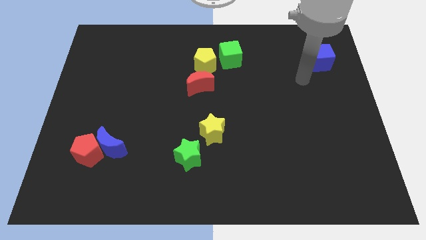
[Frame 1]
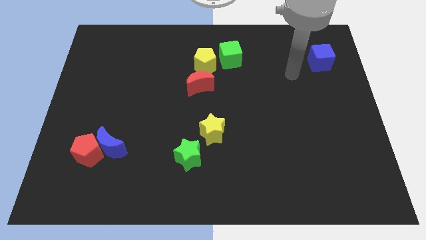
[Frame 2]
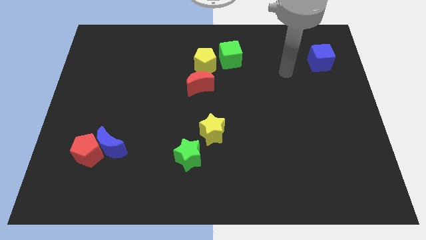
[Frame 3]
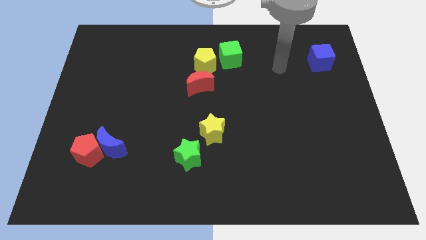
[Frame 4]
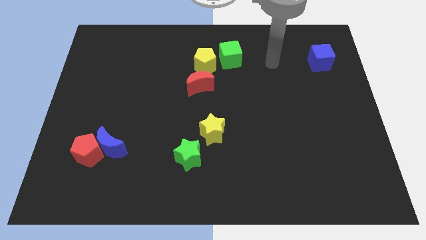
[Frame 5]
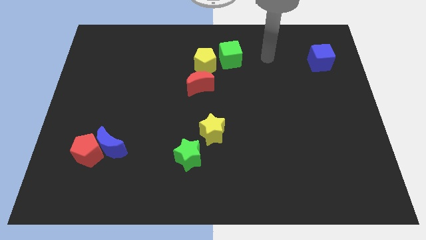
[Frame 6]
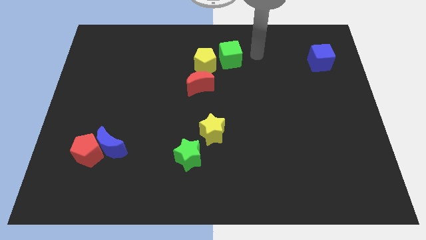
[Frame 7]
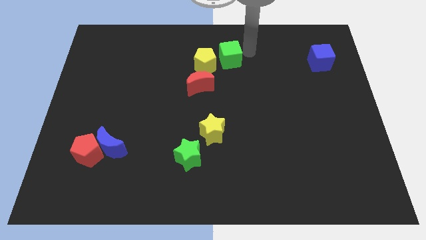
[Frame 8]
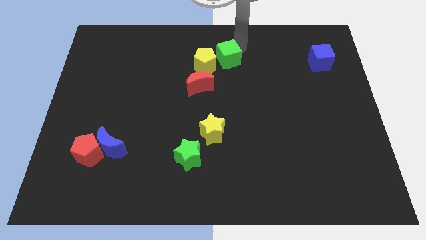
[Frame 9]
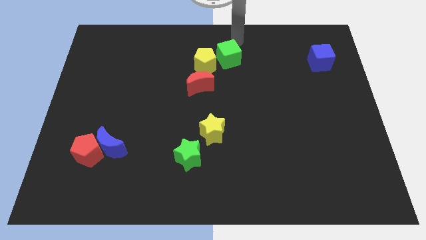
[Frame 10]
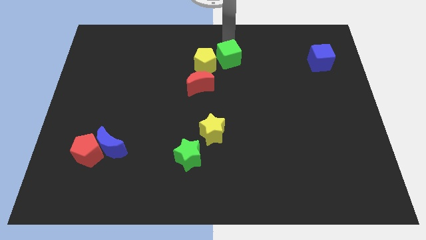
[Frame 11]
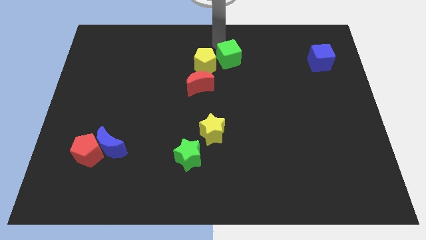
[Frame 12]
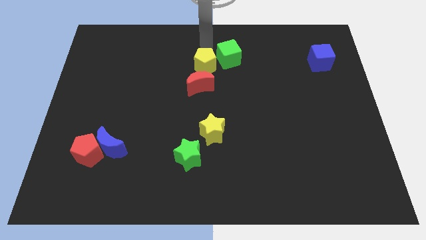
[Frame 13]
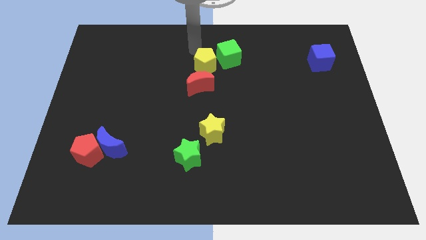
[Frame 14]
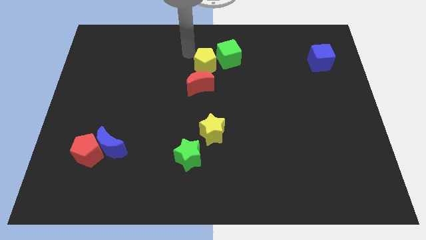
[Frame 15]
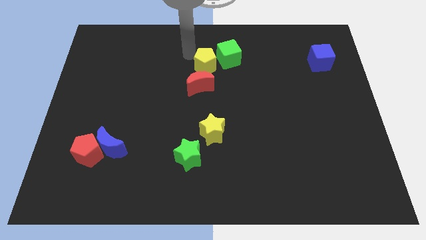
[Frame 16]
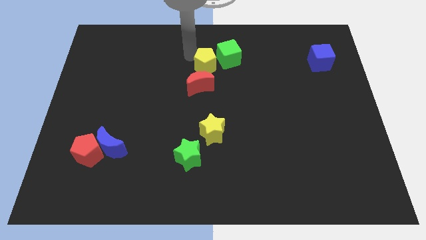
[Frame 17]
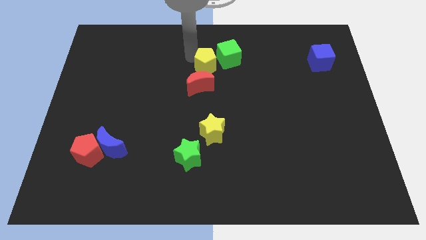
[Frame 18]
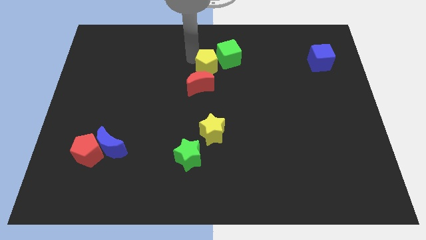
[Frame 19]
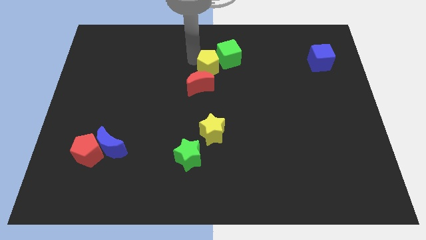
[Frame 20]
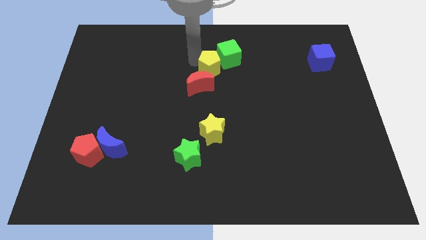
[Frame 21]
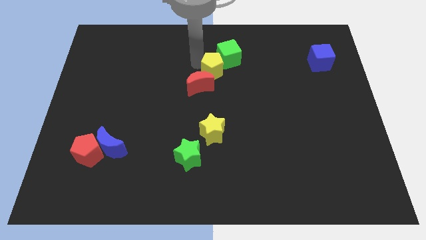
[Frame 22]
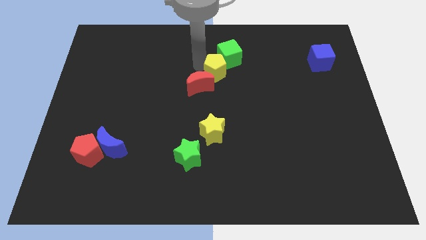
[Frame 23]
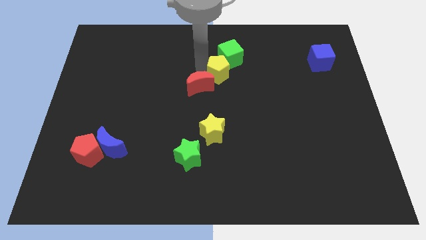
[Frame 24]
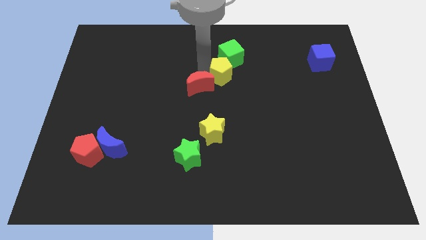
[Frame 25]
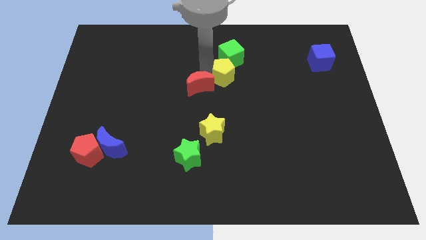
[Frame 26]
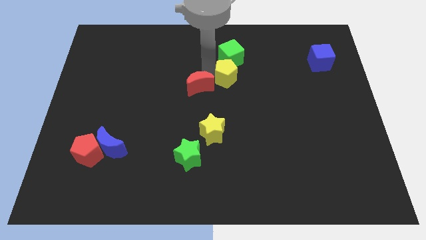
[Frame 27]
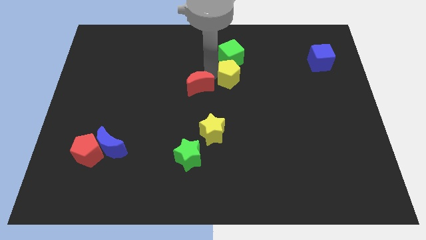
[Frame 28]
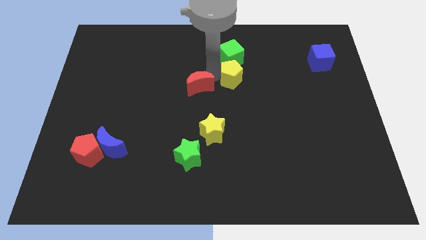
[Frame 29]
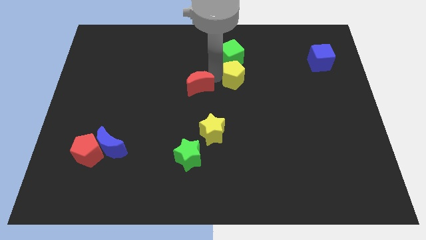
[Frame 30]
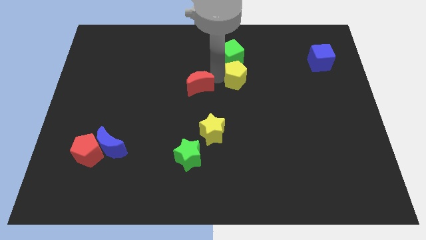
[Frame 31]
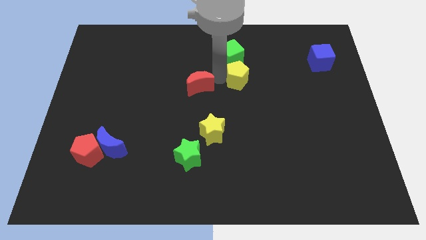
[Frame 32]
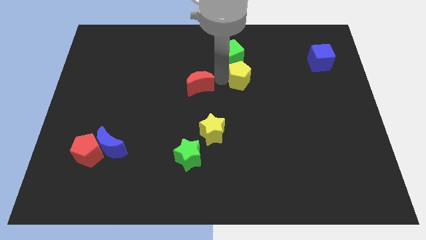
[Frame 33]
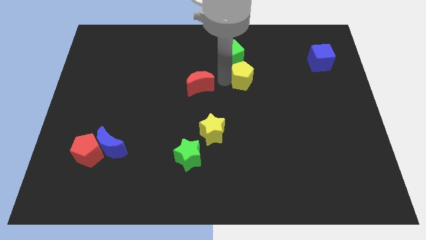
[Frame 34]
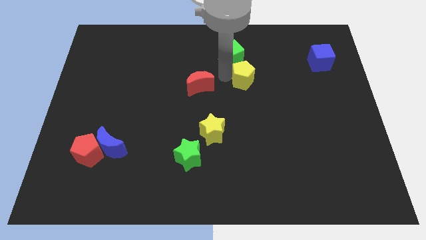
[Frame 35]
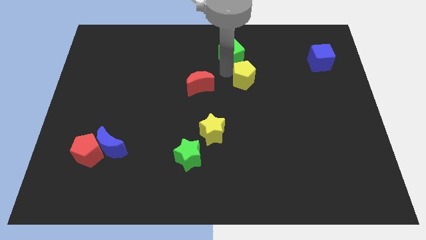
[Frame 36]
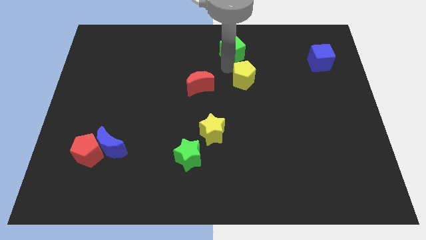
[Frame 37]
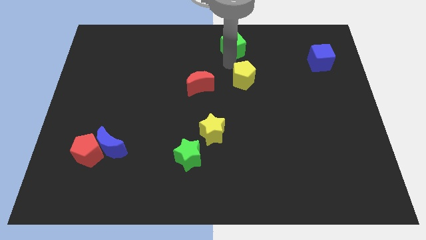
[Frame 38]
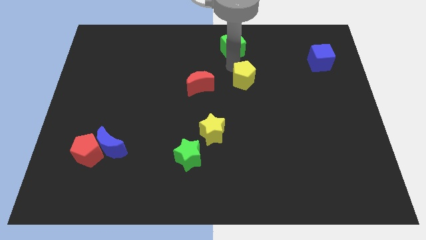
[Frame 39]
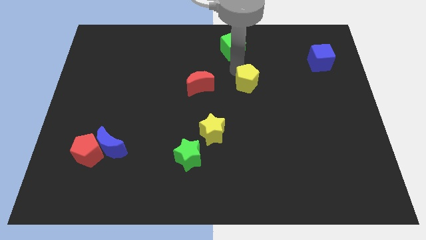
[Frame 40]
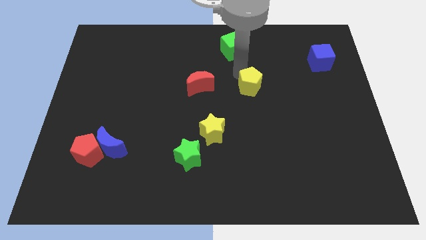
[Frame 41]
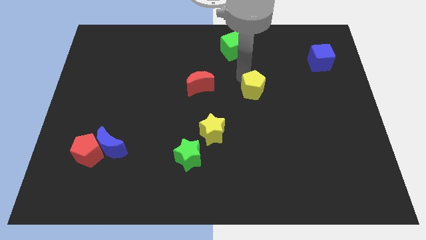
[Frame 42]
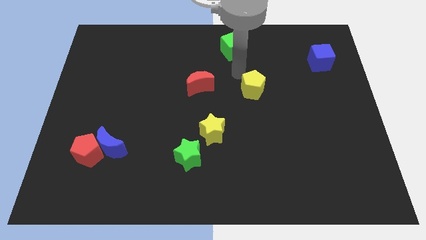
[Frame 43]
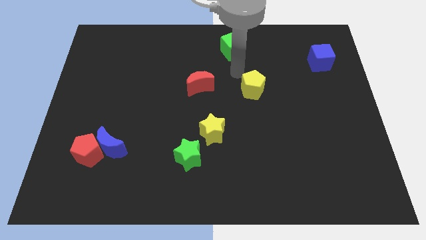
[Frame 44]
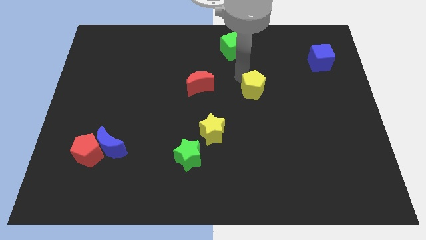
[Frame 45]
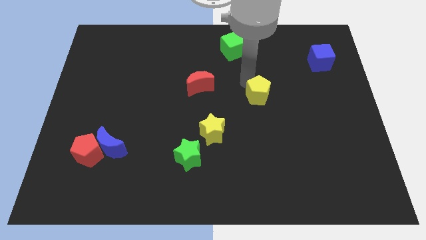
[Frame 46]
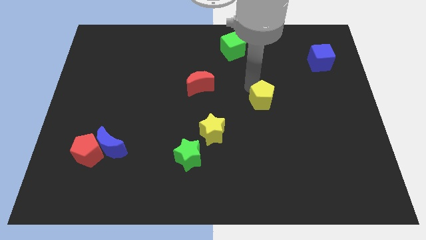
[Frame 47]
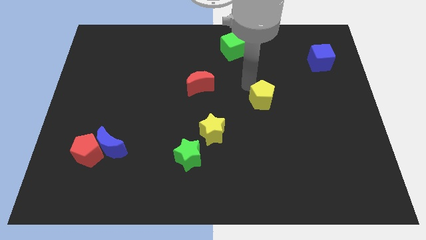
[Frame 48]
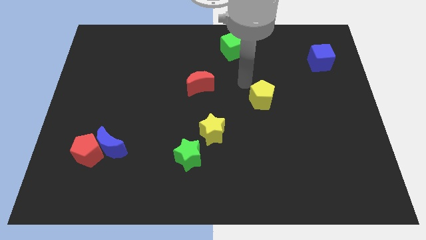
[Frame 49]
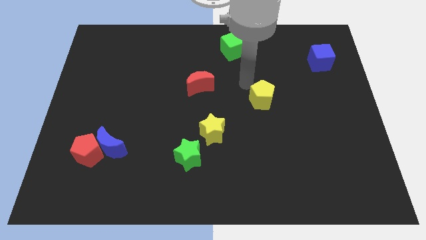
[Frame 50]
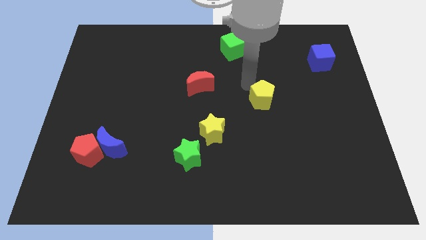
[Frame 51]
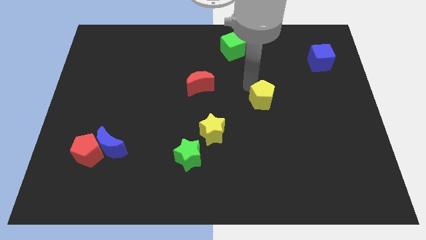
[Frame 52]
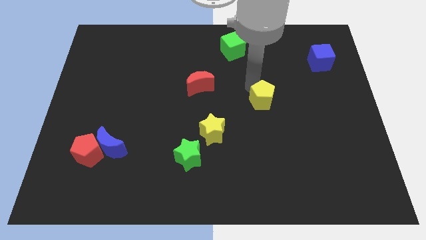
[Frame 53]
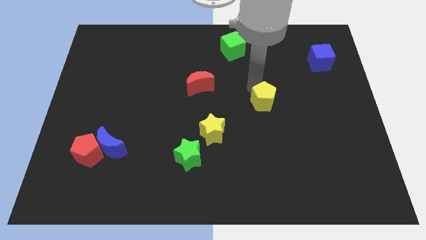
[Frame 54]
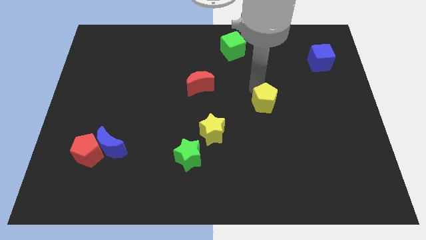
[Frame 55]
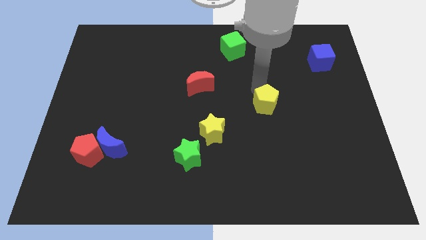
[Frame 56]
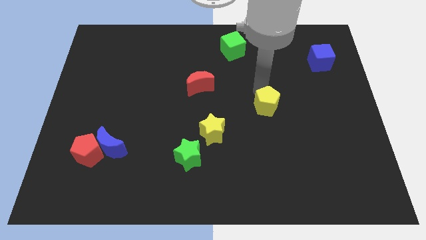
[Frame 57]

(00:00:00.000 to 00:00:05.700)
push the yellow pentagon downwards and to the right diagonally

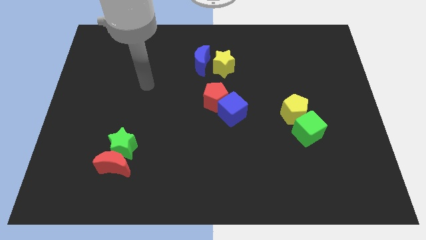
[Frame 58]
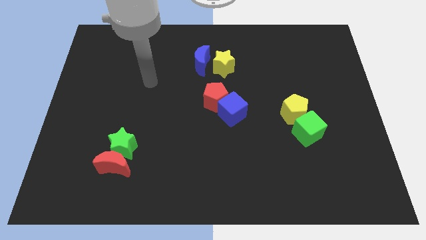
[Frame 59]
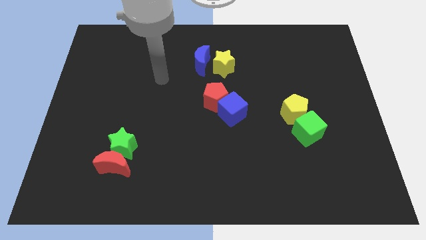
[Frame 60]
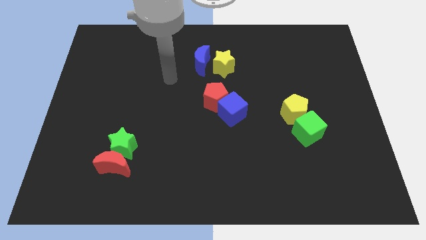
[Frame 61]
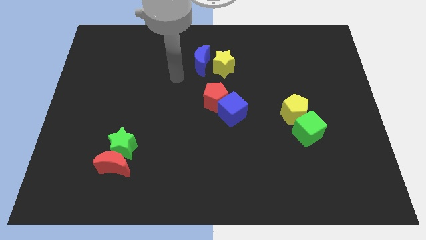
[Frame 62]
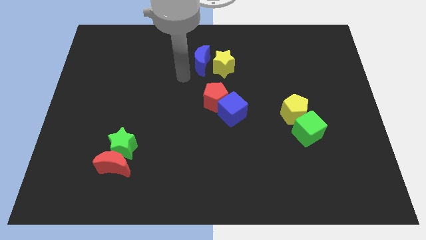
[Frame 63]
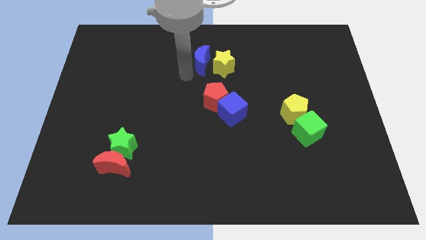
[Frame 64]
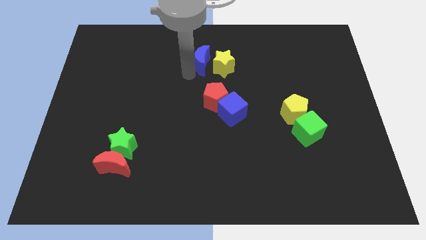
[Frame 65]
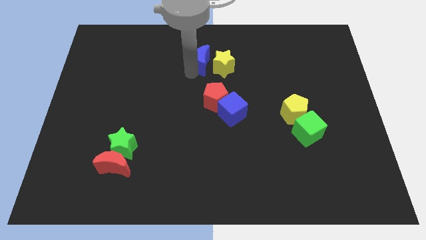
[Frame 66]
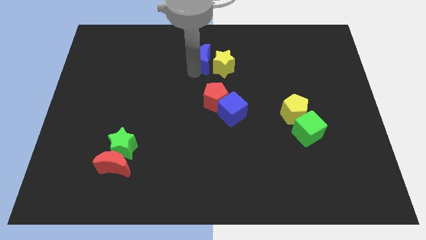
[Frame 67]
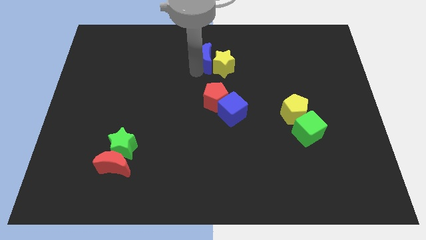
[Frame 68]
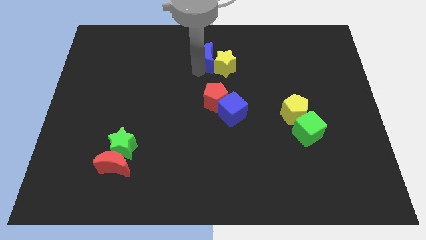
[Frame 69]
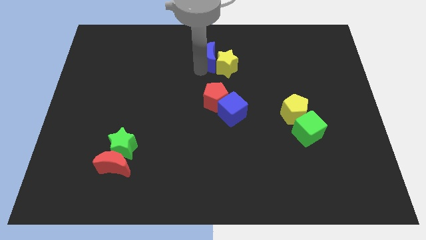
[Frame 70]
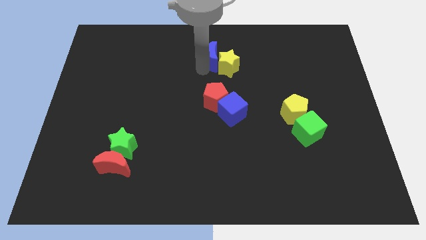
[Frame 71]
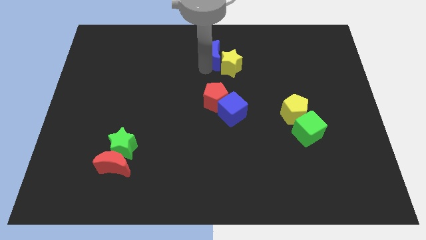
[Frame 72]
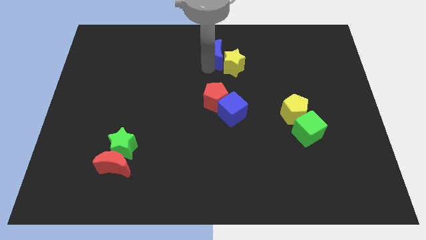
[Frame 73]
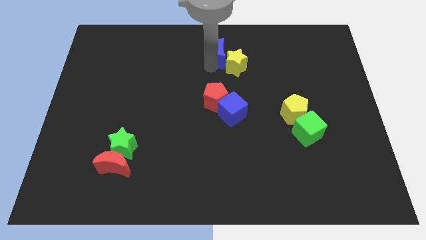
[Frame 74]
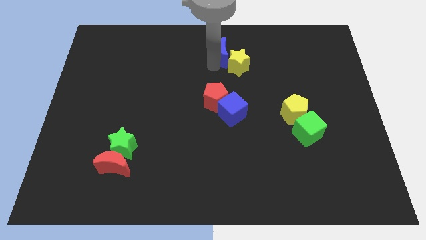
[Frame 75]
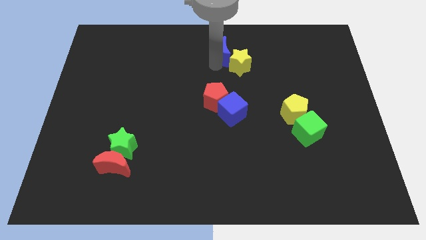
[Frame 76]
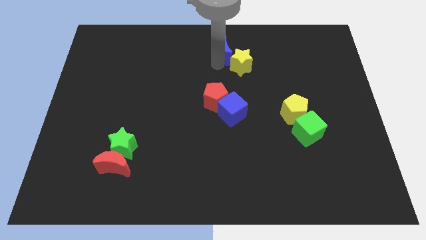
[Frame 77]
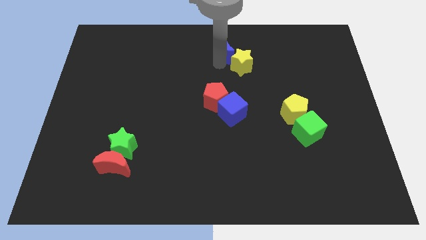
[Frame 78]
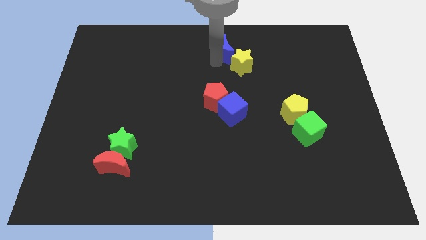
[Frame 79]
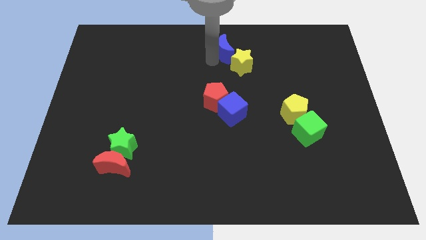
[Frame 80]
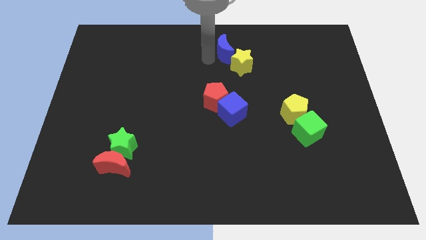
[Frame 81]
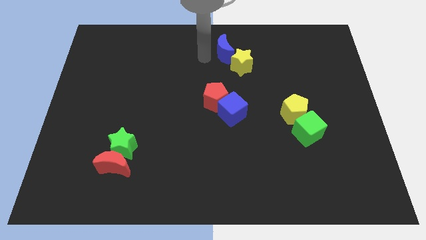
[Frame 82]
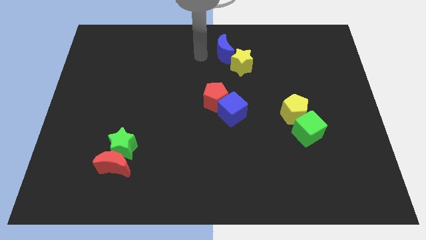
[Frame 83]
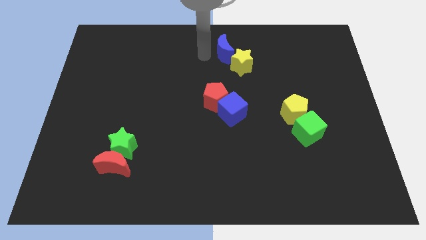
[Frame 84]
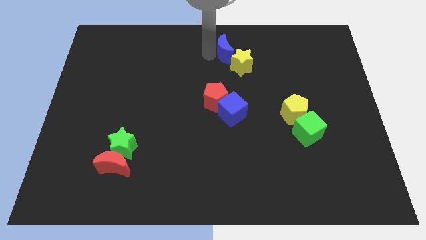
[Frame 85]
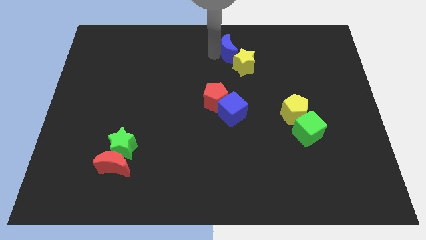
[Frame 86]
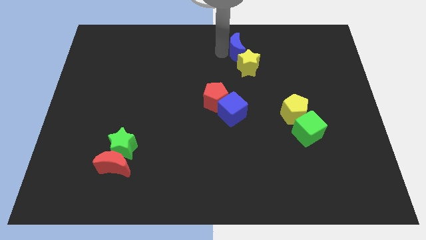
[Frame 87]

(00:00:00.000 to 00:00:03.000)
slightly move the blue moon right
